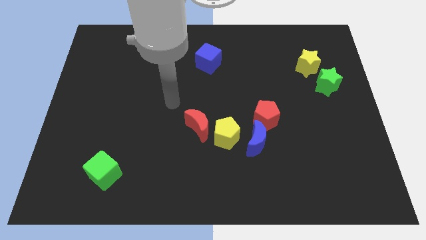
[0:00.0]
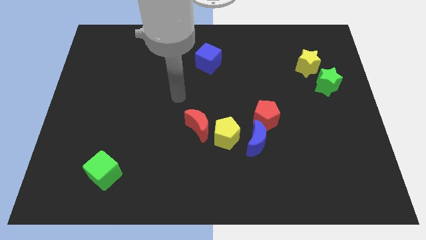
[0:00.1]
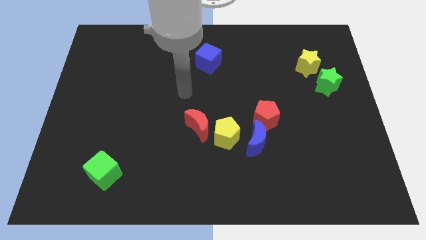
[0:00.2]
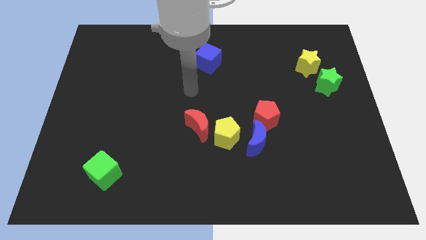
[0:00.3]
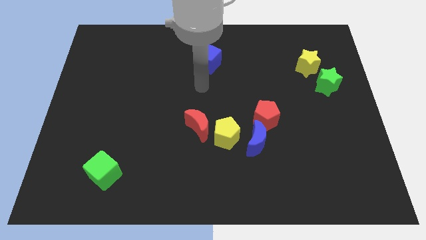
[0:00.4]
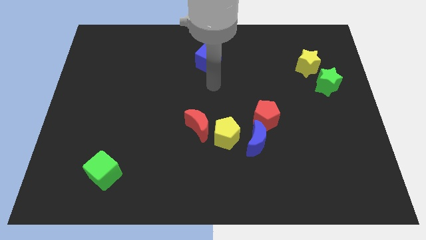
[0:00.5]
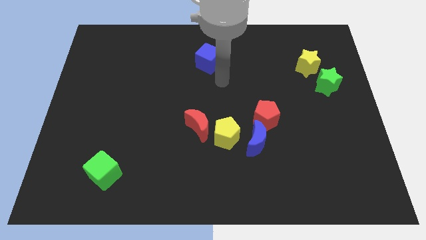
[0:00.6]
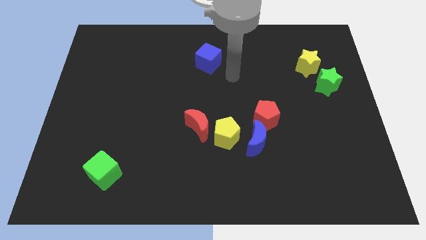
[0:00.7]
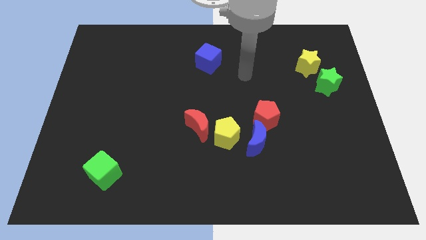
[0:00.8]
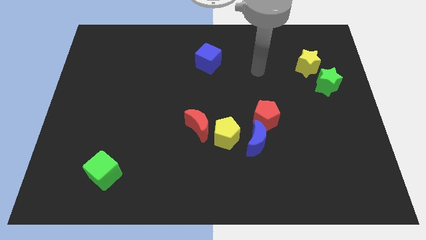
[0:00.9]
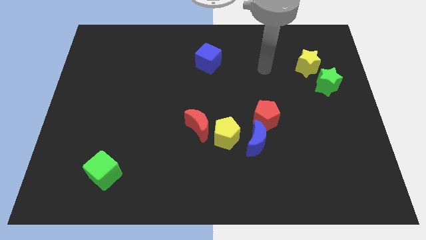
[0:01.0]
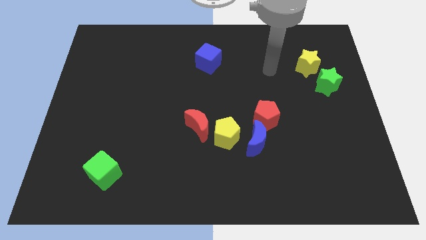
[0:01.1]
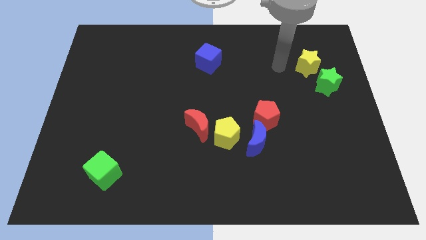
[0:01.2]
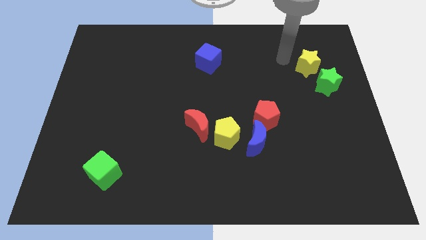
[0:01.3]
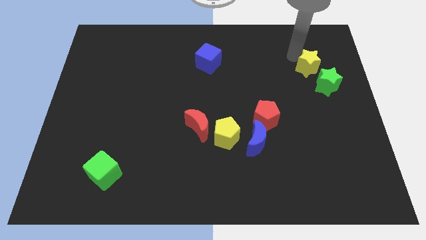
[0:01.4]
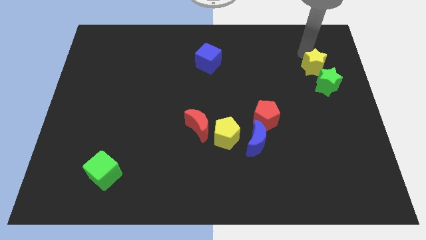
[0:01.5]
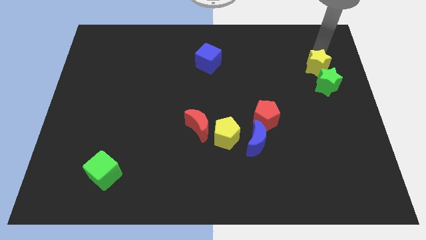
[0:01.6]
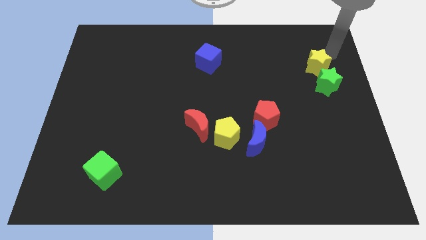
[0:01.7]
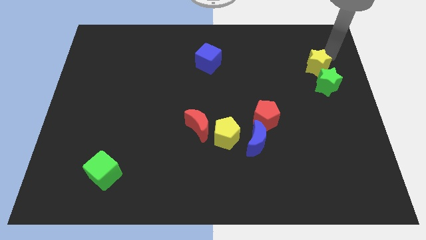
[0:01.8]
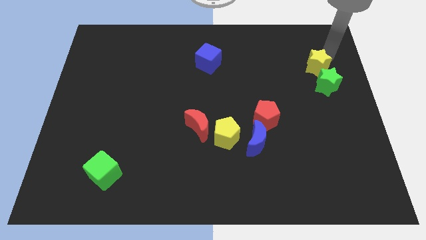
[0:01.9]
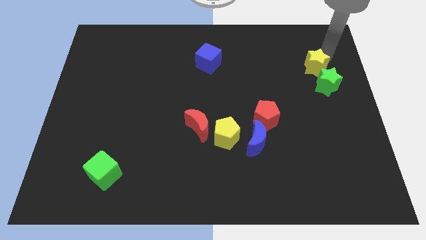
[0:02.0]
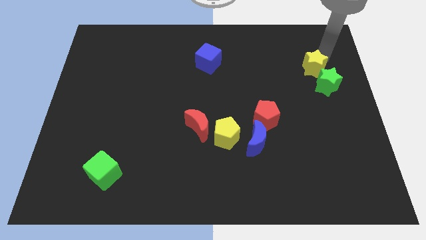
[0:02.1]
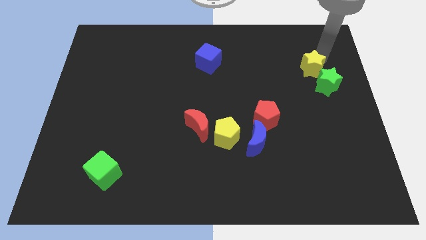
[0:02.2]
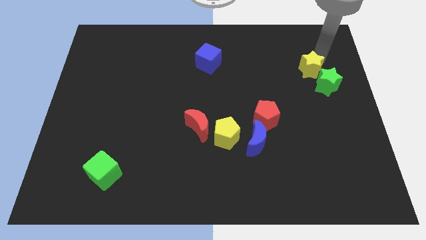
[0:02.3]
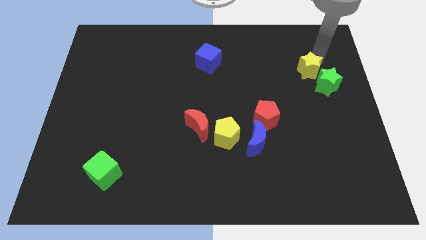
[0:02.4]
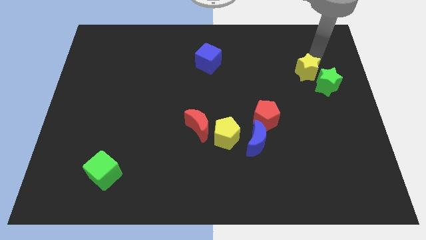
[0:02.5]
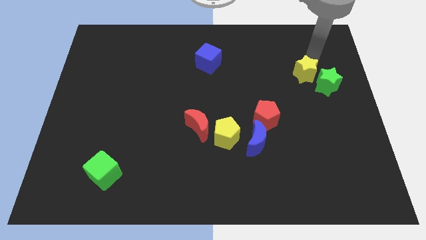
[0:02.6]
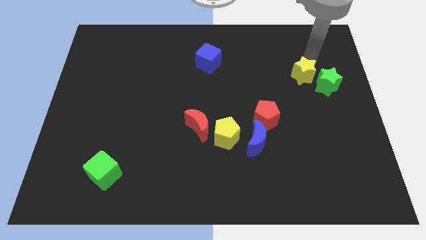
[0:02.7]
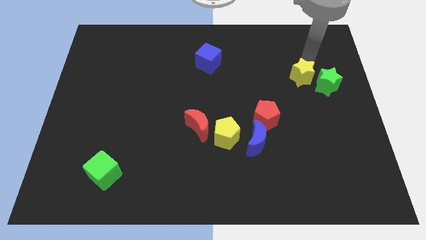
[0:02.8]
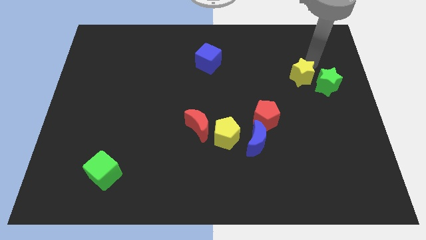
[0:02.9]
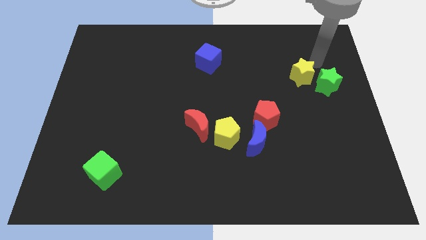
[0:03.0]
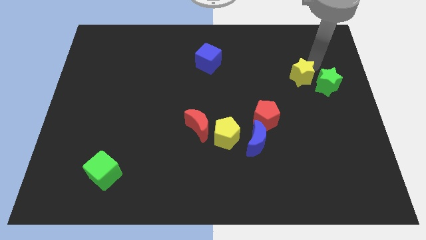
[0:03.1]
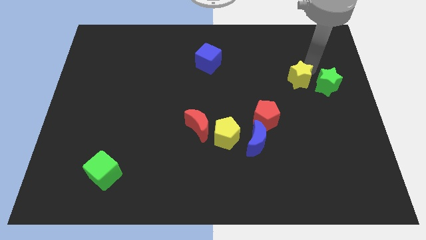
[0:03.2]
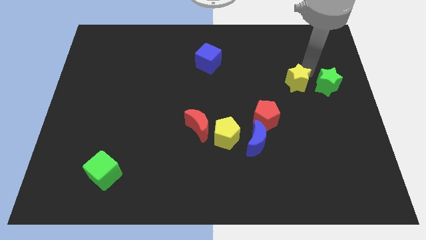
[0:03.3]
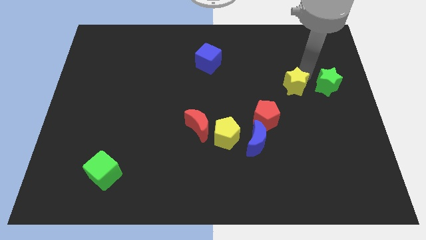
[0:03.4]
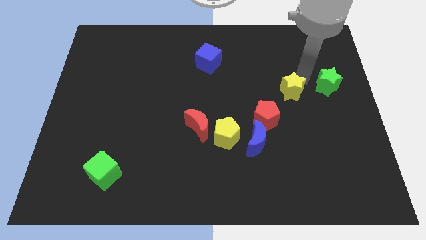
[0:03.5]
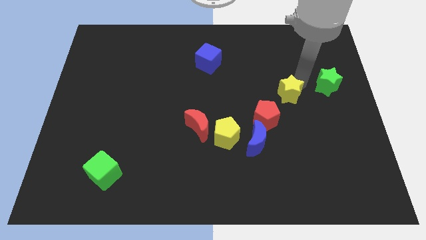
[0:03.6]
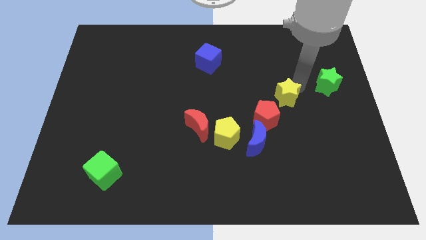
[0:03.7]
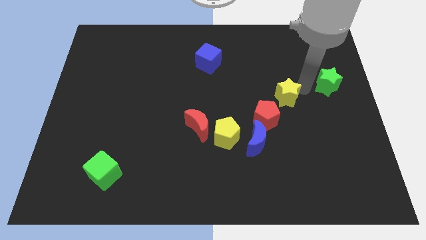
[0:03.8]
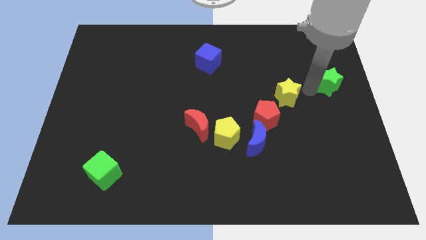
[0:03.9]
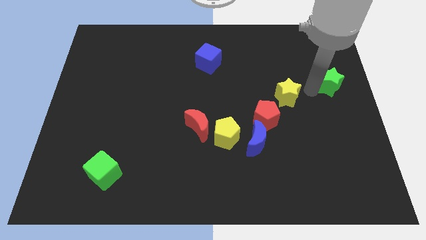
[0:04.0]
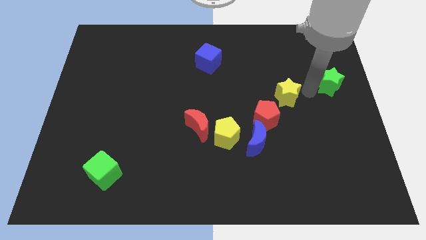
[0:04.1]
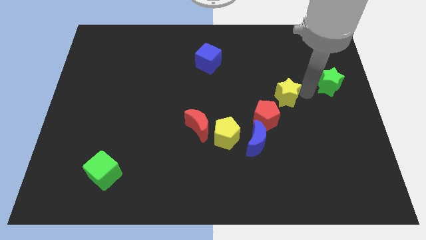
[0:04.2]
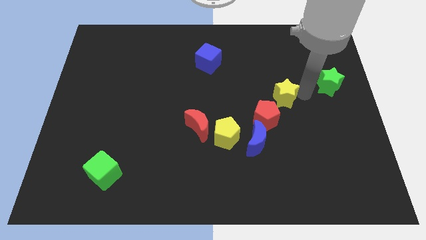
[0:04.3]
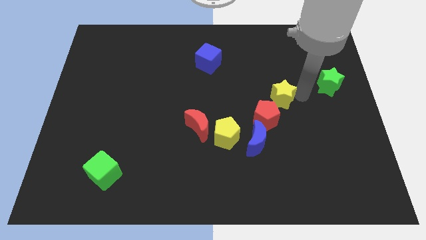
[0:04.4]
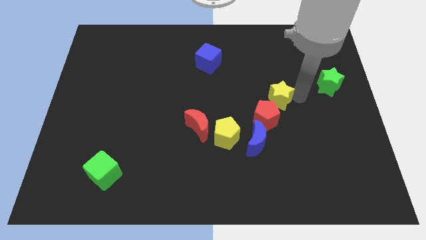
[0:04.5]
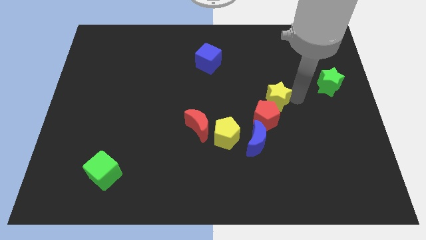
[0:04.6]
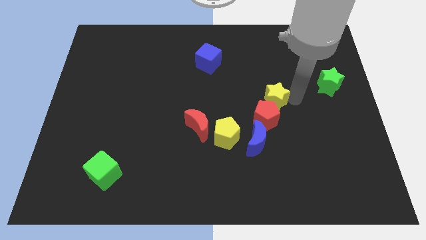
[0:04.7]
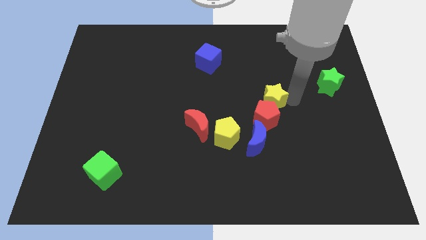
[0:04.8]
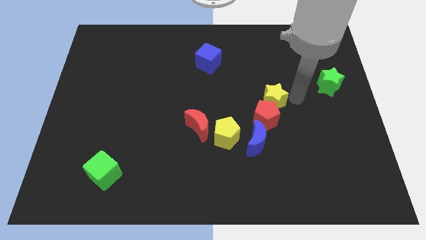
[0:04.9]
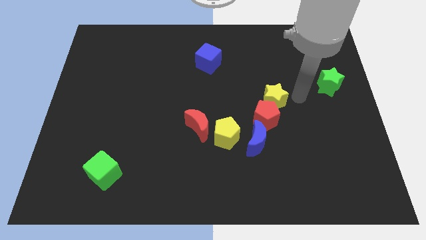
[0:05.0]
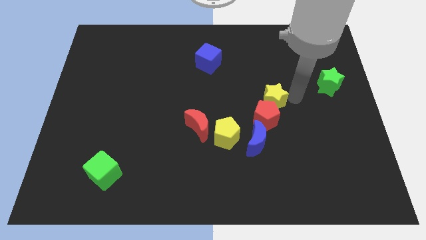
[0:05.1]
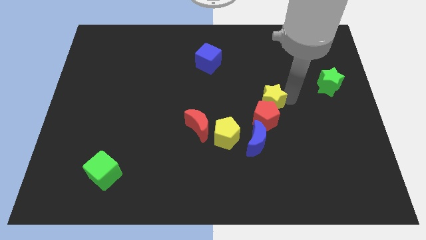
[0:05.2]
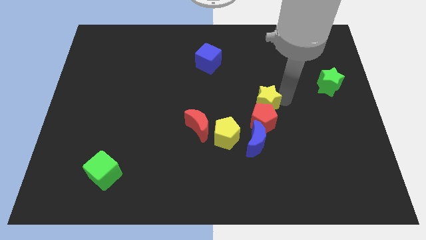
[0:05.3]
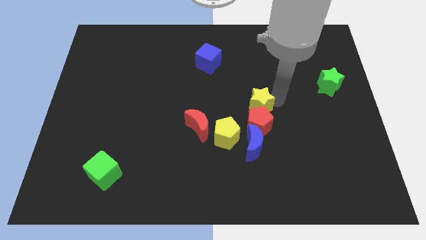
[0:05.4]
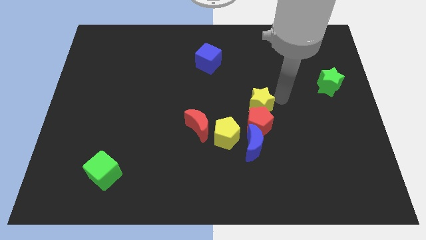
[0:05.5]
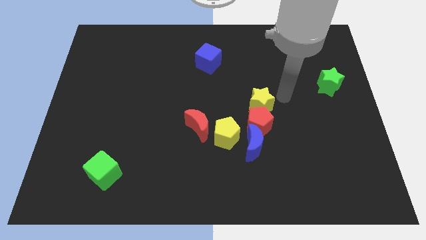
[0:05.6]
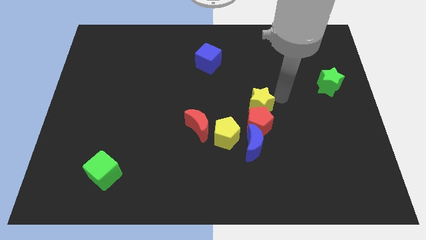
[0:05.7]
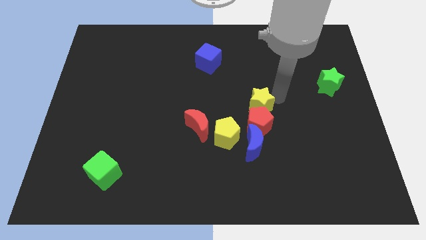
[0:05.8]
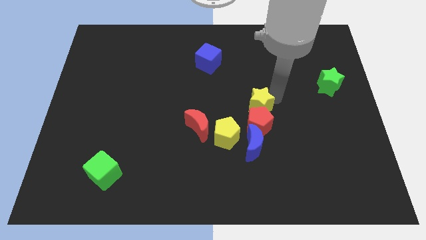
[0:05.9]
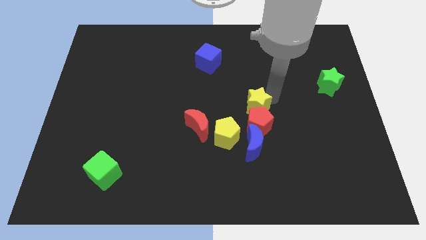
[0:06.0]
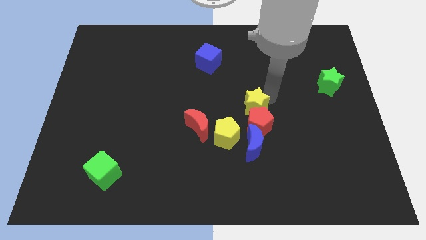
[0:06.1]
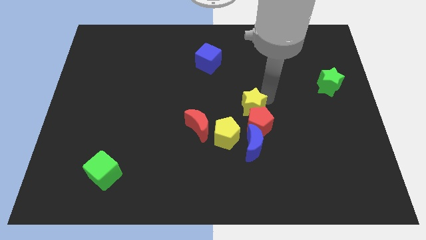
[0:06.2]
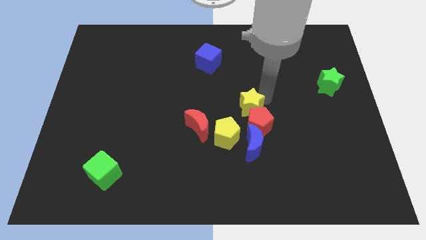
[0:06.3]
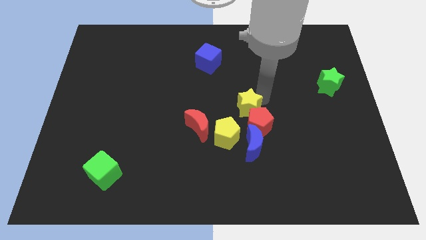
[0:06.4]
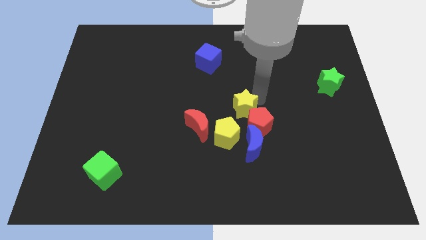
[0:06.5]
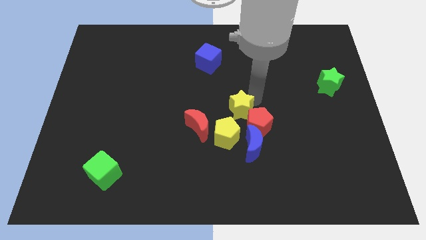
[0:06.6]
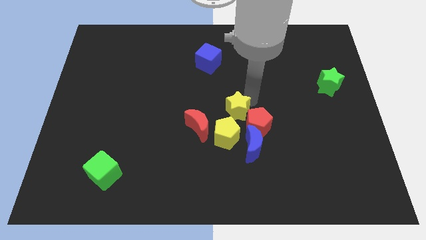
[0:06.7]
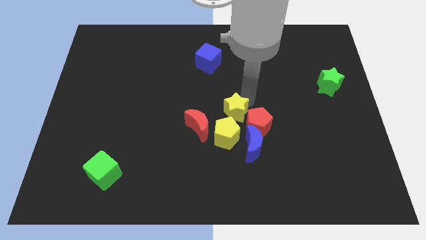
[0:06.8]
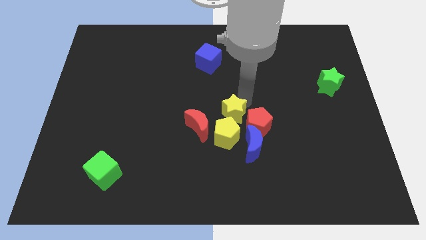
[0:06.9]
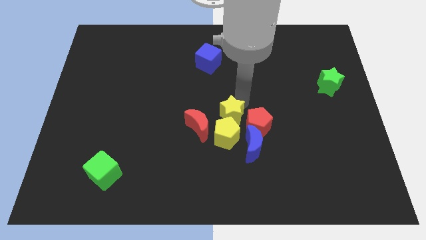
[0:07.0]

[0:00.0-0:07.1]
put the yellow star close to the yellow pentagon

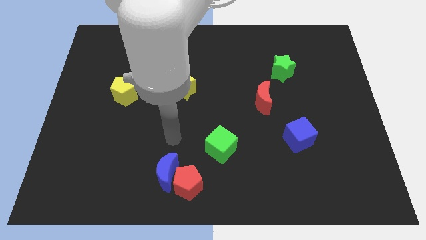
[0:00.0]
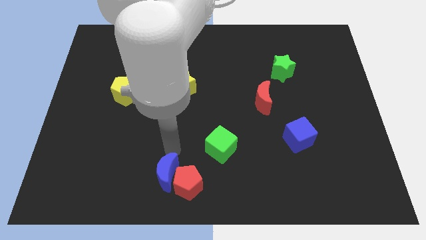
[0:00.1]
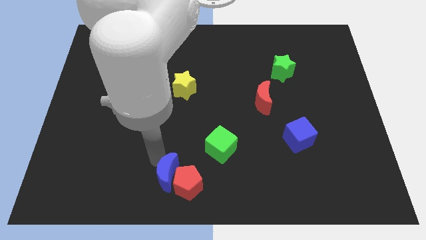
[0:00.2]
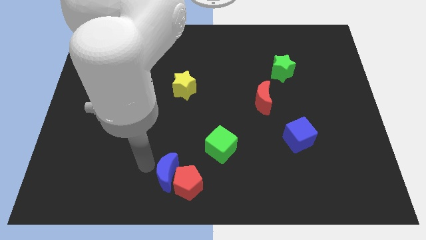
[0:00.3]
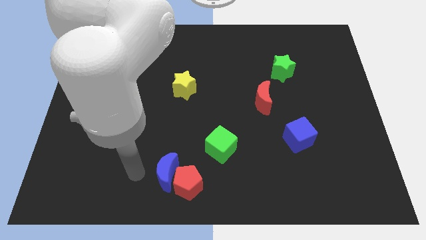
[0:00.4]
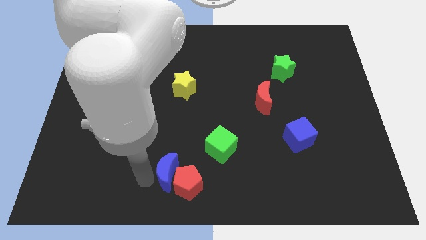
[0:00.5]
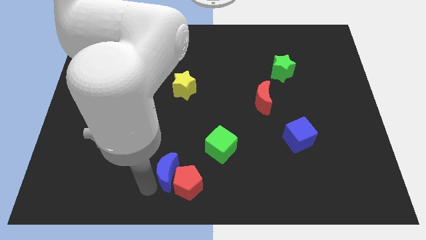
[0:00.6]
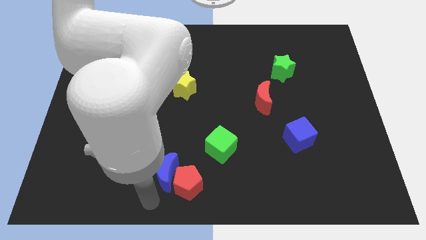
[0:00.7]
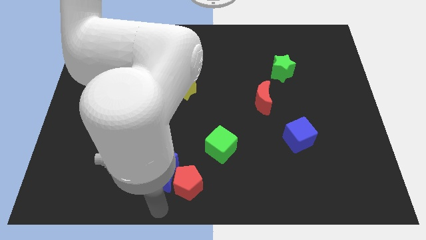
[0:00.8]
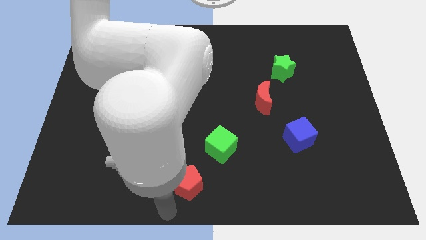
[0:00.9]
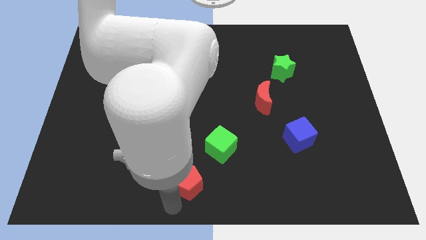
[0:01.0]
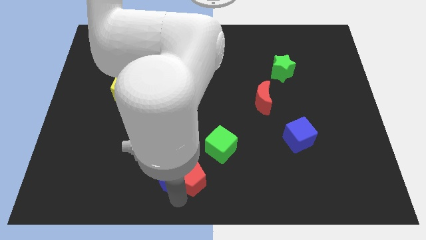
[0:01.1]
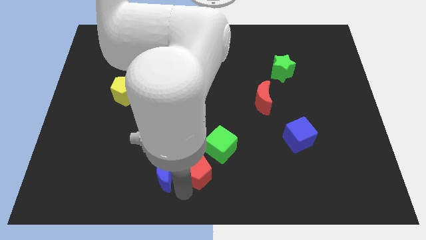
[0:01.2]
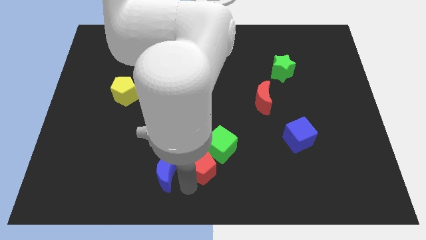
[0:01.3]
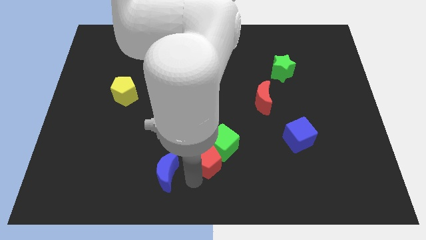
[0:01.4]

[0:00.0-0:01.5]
put the red pentagon next to the green cube
